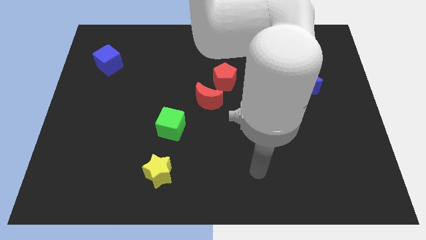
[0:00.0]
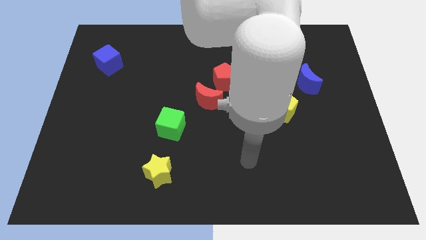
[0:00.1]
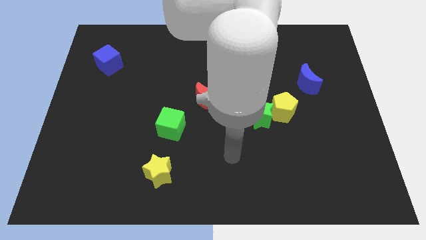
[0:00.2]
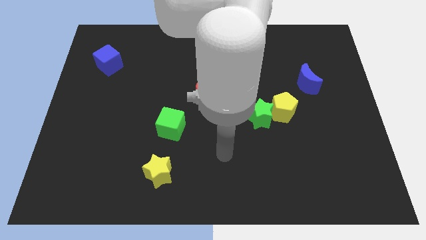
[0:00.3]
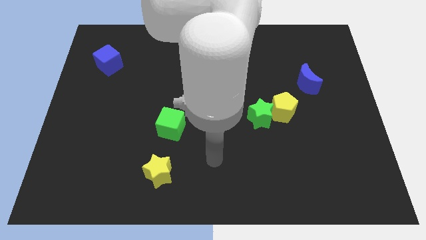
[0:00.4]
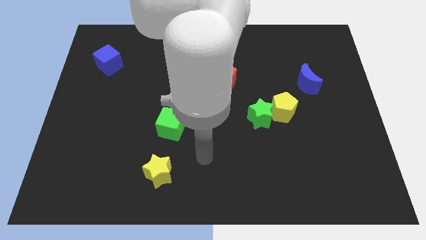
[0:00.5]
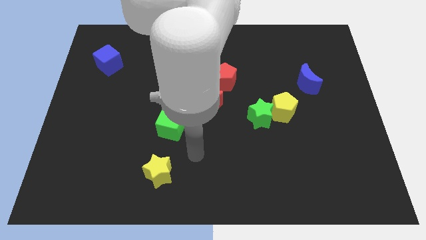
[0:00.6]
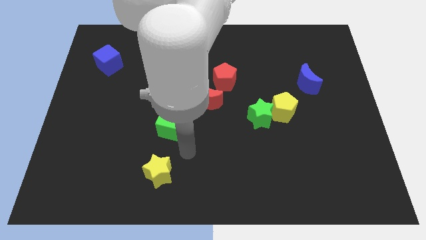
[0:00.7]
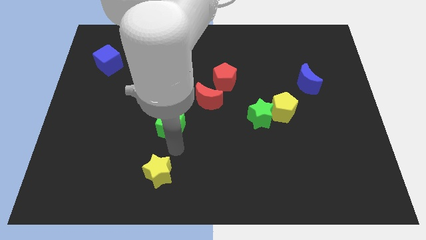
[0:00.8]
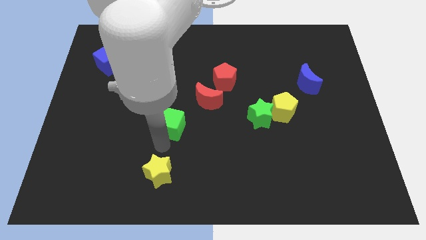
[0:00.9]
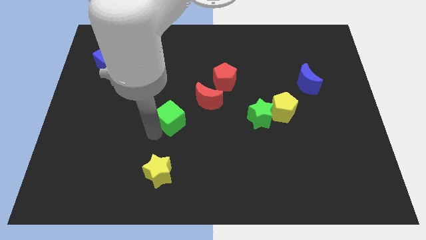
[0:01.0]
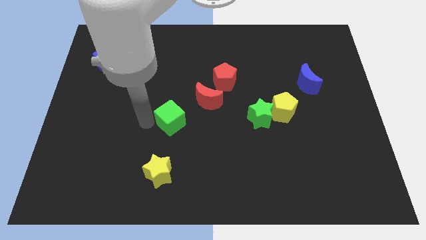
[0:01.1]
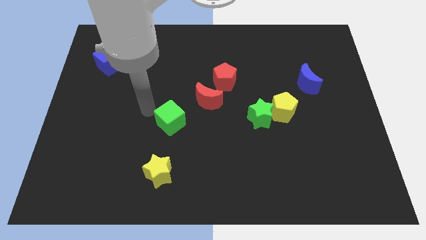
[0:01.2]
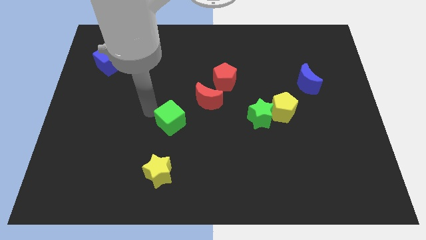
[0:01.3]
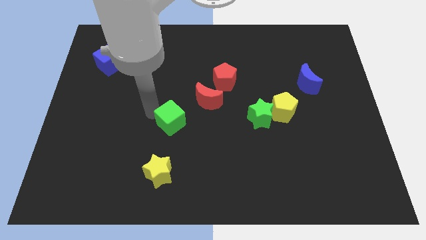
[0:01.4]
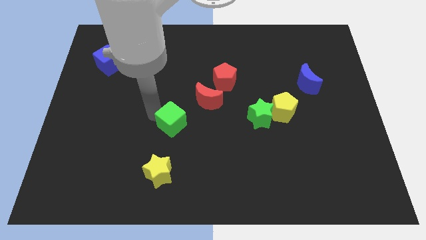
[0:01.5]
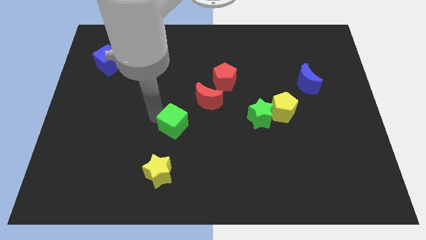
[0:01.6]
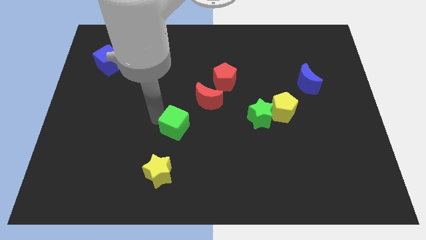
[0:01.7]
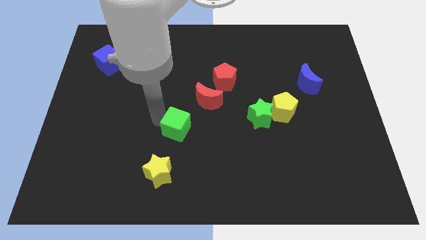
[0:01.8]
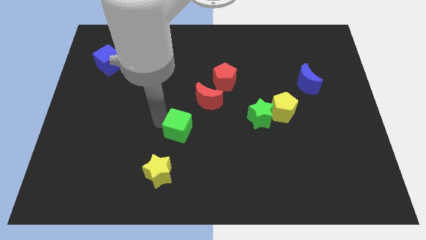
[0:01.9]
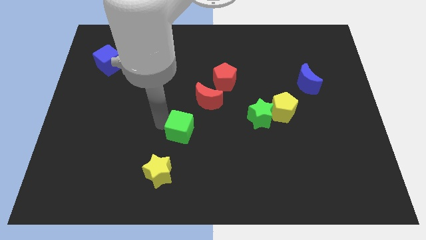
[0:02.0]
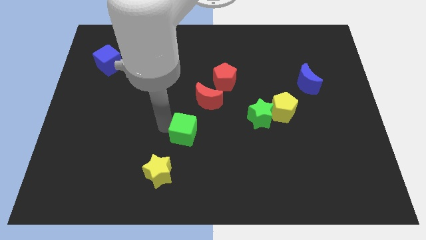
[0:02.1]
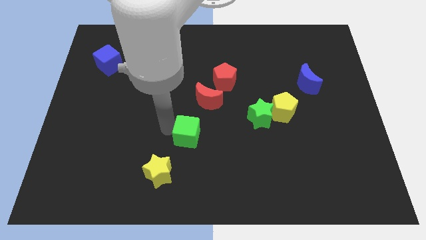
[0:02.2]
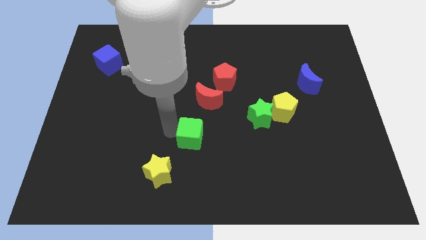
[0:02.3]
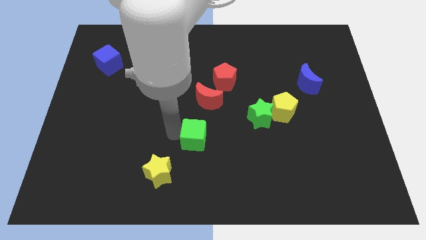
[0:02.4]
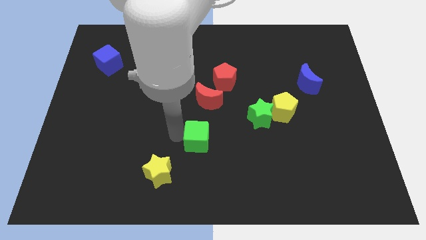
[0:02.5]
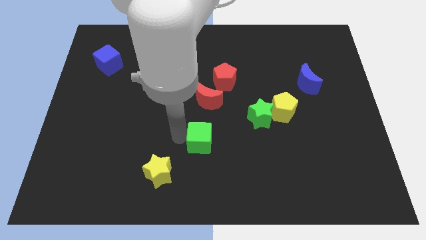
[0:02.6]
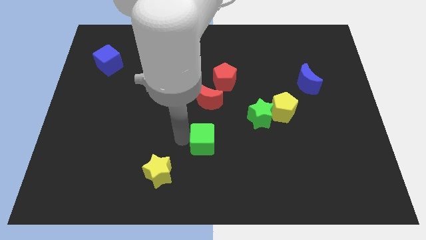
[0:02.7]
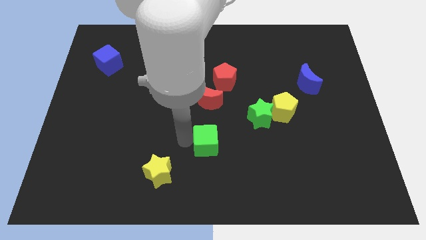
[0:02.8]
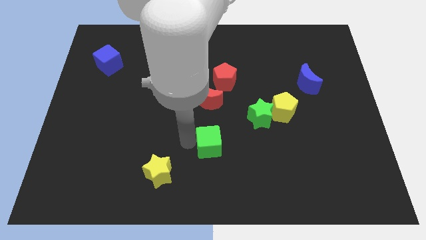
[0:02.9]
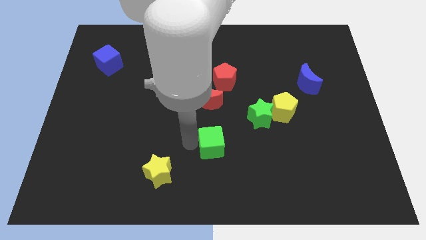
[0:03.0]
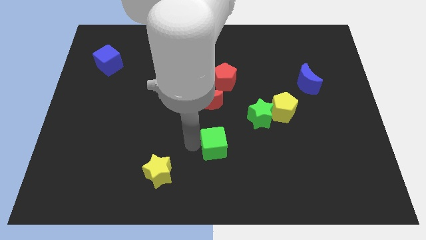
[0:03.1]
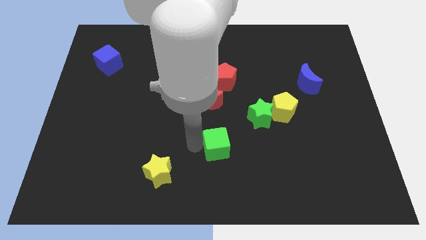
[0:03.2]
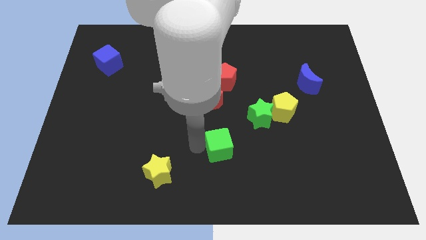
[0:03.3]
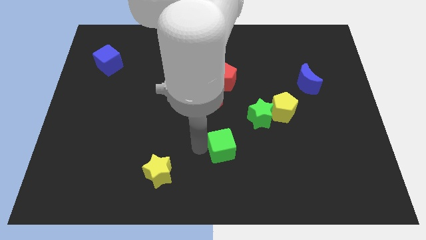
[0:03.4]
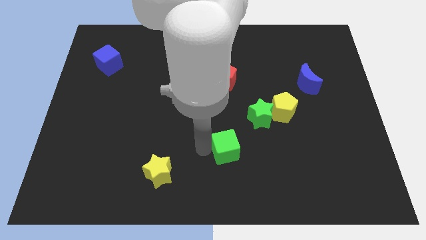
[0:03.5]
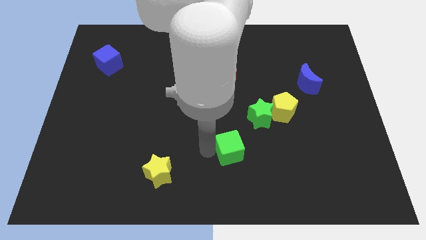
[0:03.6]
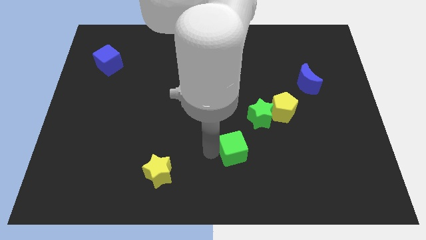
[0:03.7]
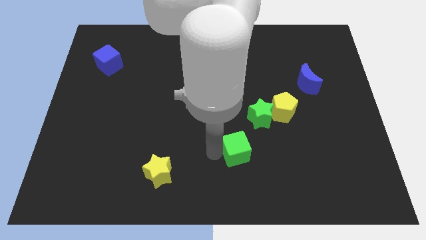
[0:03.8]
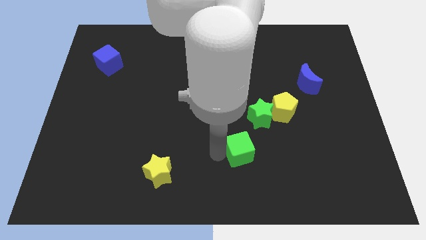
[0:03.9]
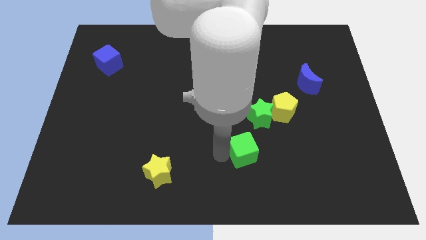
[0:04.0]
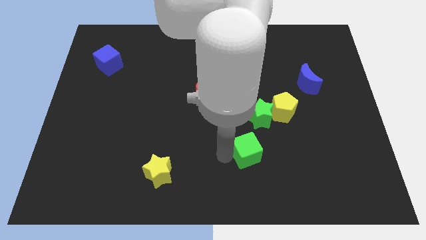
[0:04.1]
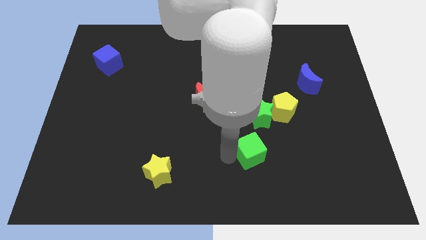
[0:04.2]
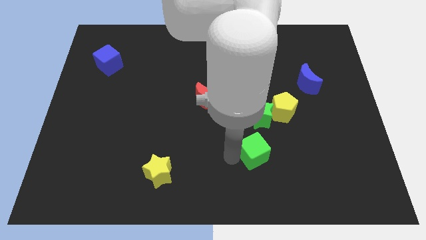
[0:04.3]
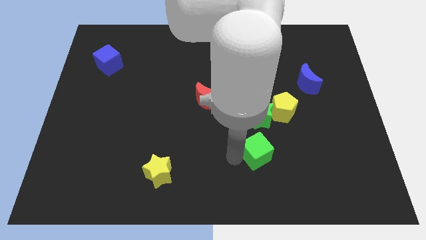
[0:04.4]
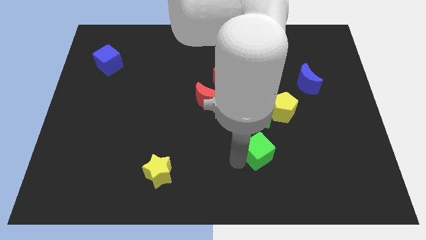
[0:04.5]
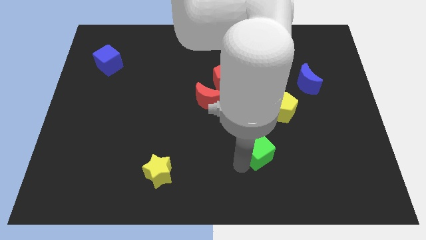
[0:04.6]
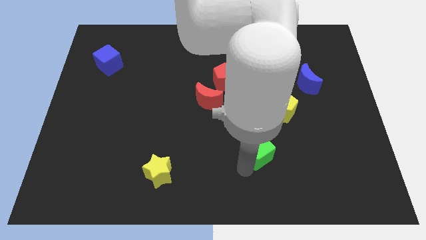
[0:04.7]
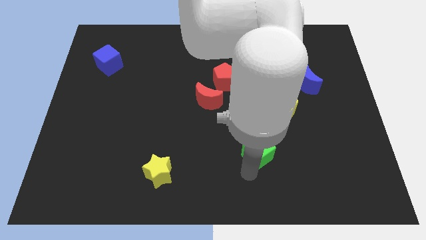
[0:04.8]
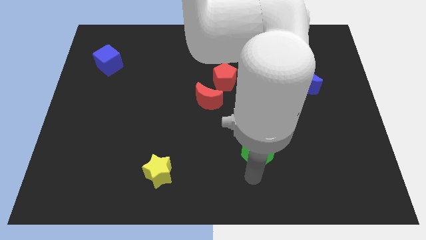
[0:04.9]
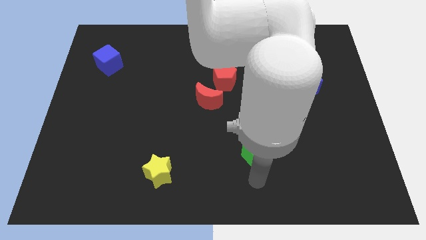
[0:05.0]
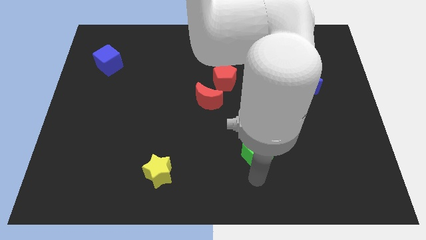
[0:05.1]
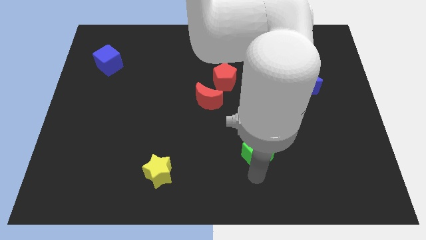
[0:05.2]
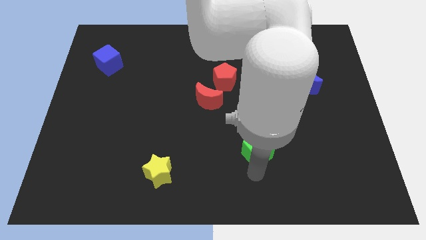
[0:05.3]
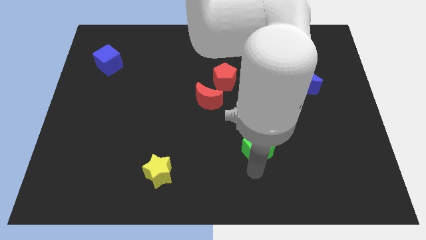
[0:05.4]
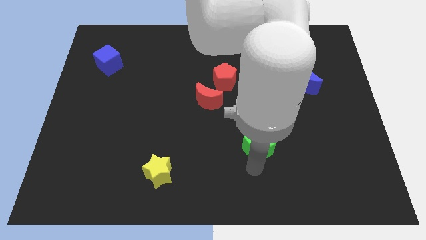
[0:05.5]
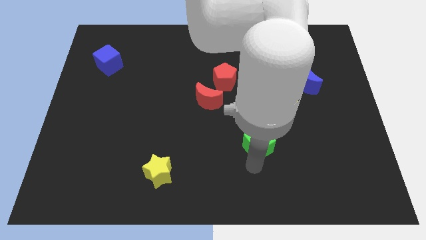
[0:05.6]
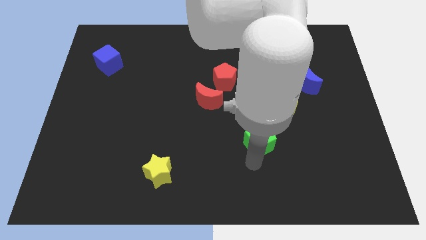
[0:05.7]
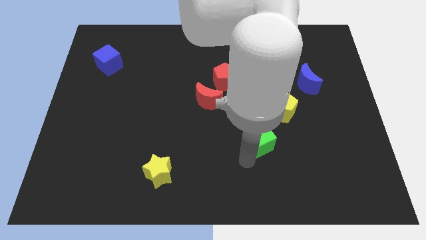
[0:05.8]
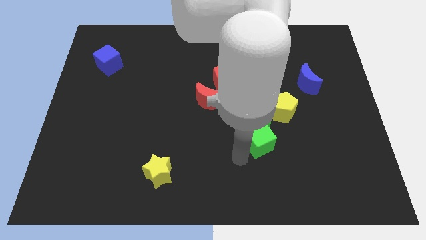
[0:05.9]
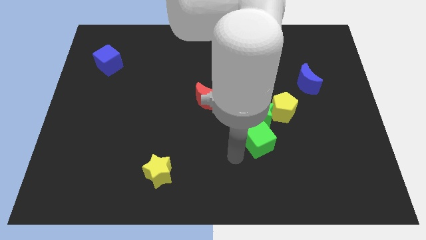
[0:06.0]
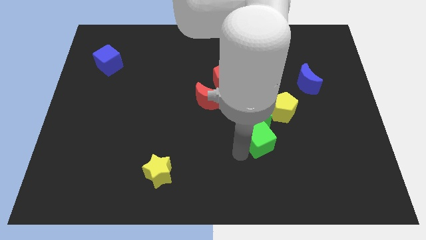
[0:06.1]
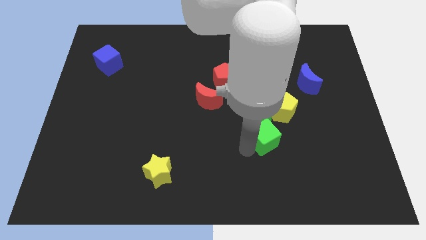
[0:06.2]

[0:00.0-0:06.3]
slide the green cube right

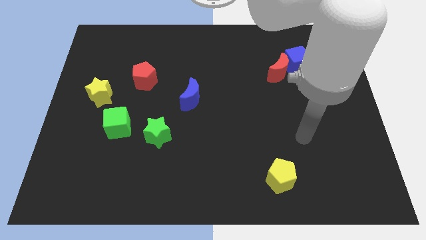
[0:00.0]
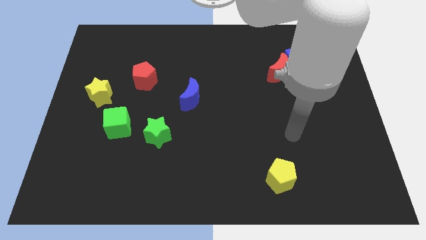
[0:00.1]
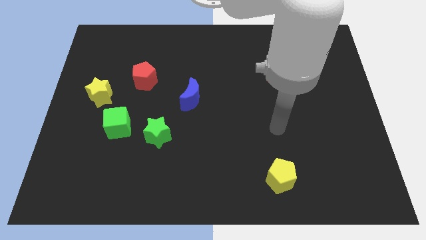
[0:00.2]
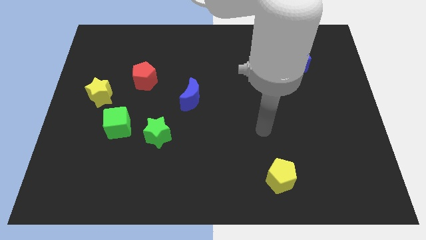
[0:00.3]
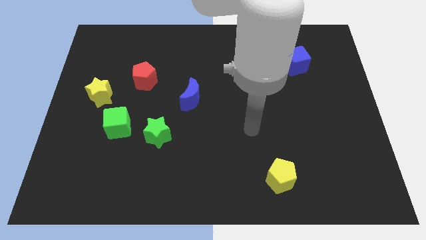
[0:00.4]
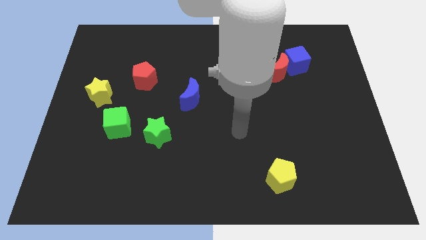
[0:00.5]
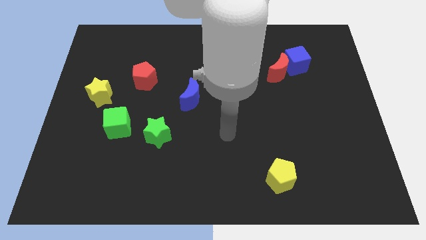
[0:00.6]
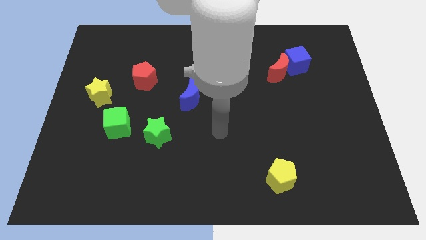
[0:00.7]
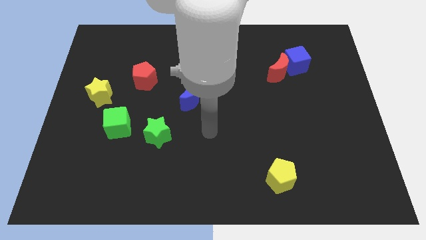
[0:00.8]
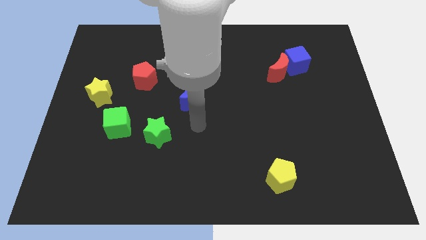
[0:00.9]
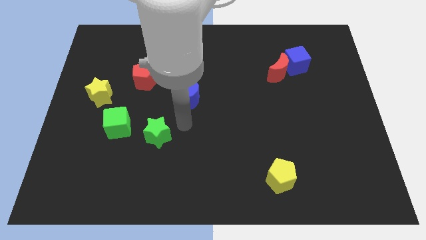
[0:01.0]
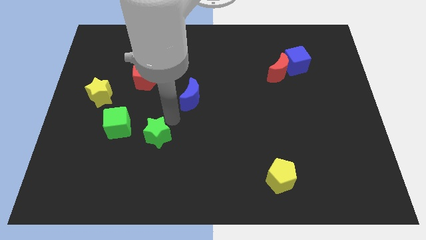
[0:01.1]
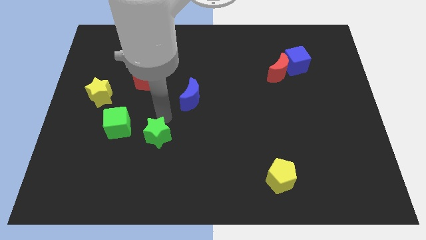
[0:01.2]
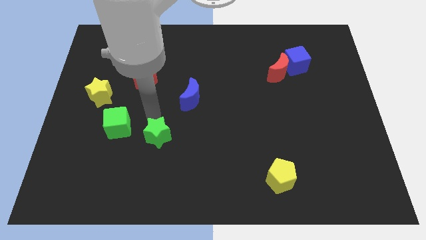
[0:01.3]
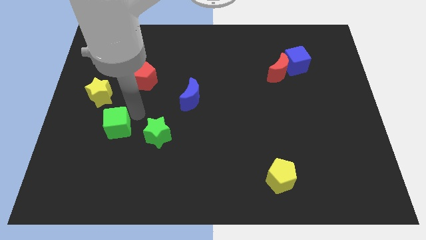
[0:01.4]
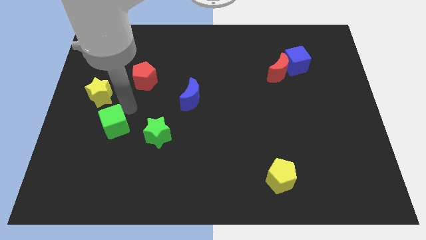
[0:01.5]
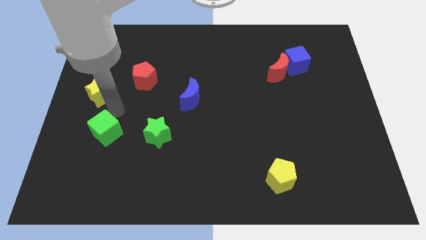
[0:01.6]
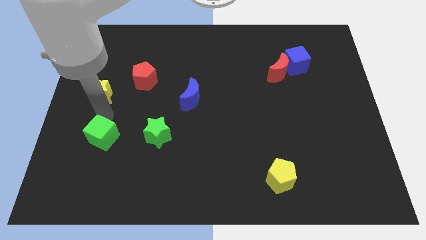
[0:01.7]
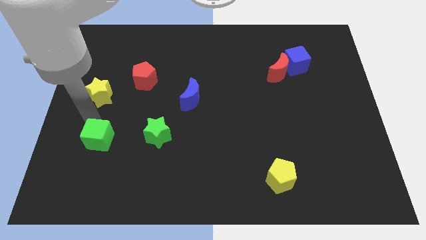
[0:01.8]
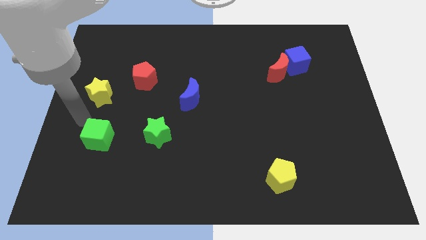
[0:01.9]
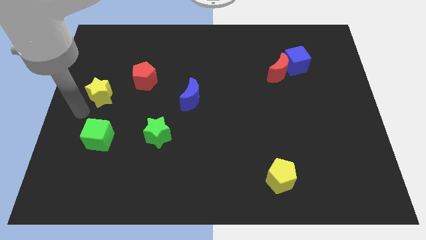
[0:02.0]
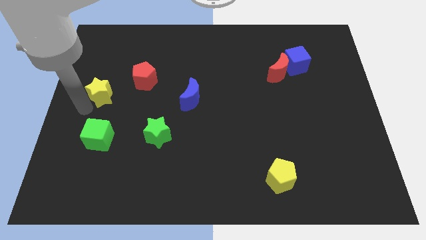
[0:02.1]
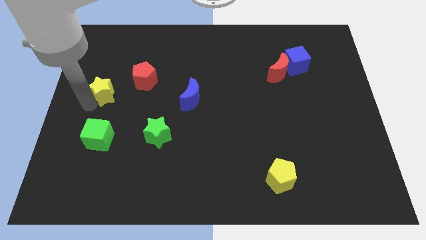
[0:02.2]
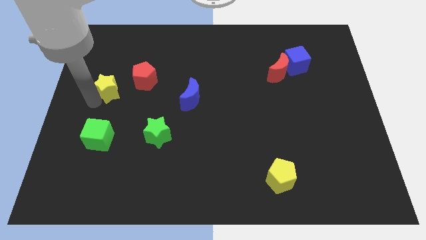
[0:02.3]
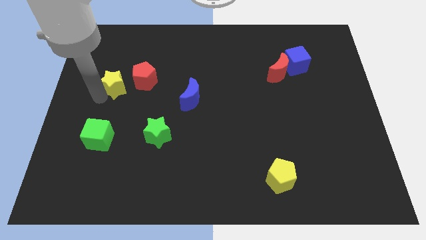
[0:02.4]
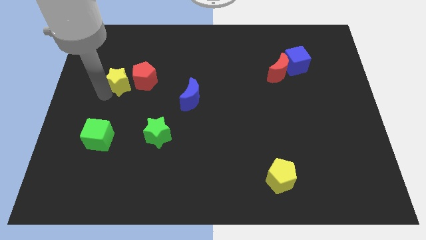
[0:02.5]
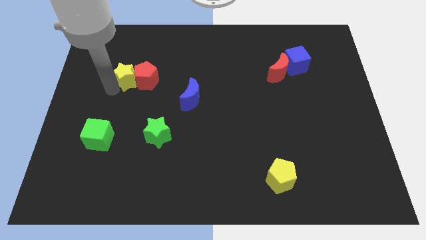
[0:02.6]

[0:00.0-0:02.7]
move the yellow star a little bit upwards and then right
